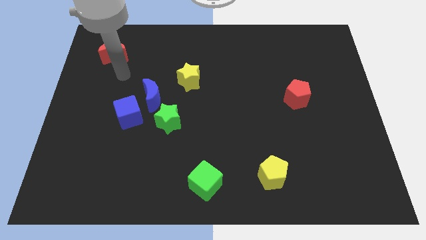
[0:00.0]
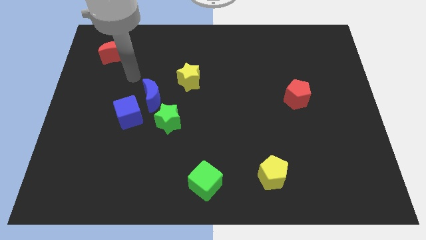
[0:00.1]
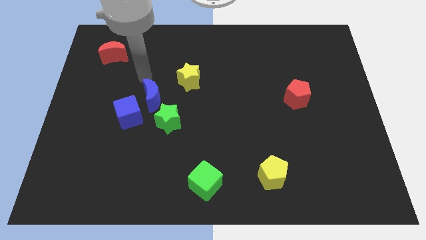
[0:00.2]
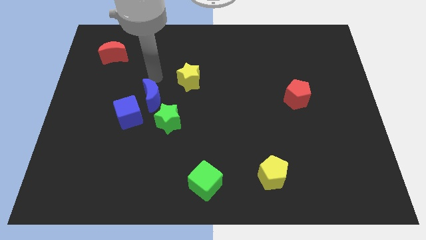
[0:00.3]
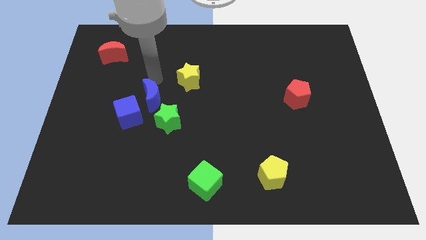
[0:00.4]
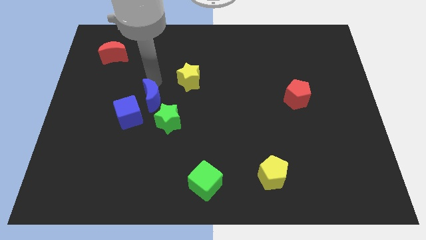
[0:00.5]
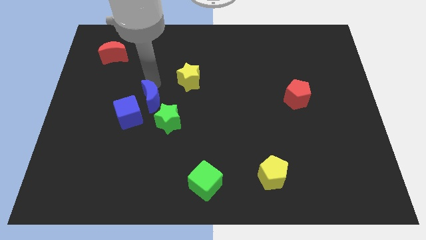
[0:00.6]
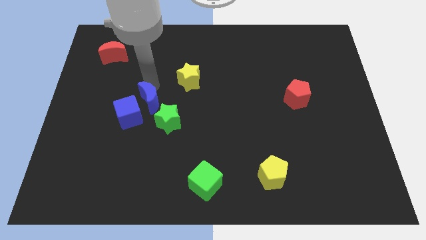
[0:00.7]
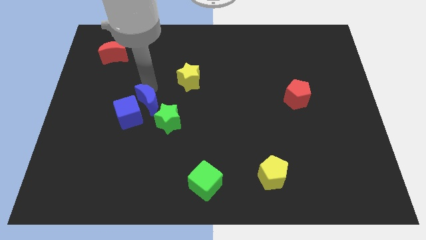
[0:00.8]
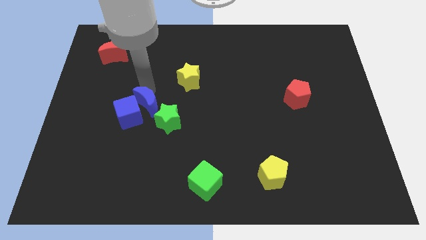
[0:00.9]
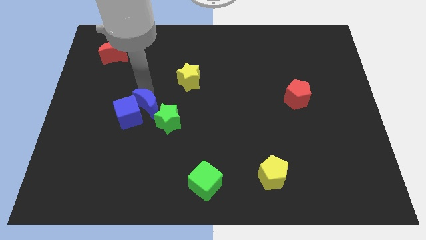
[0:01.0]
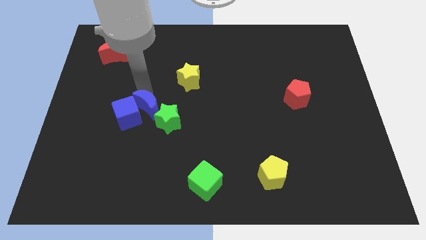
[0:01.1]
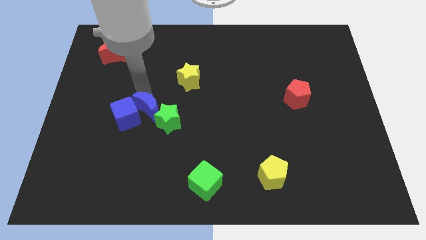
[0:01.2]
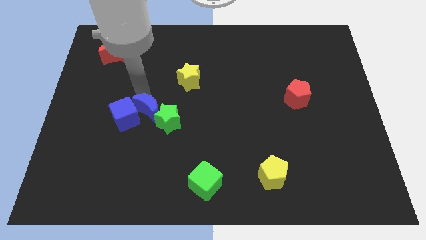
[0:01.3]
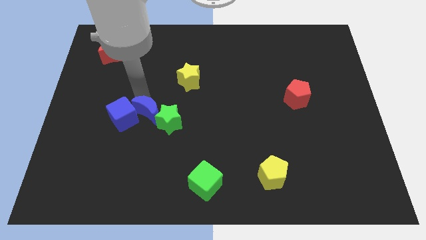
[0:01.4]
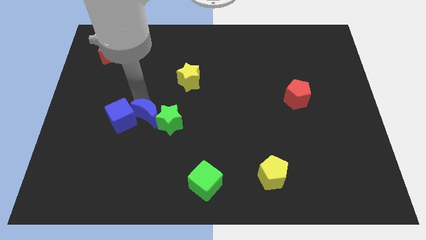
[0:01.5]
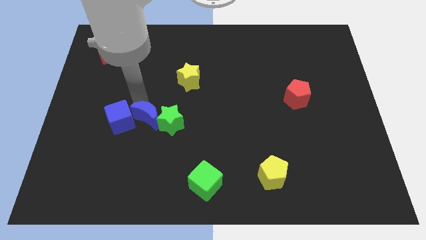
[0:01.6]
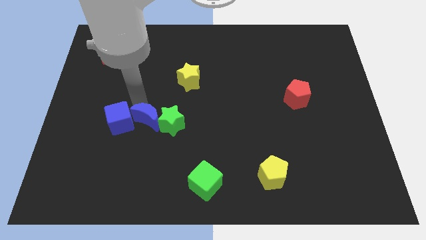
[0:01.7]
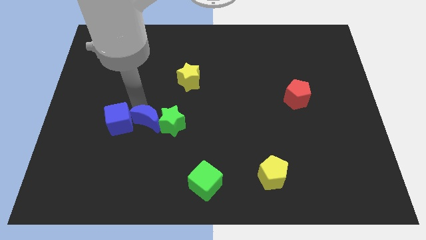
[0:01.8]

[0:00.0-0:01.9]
slightly slide the blue moon downwards

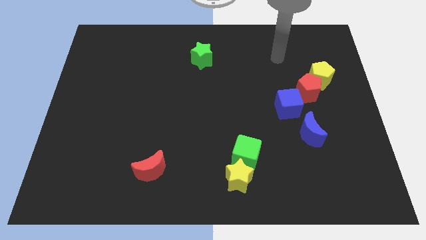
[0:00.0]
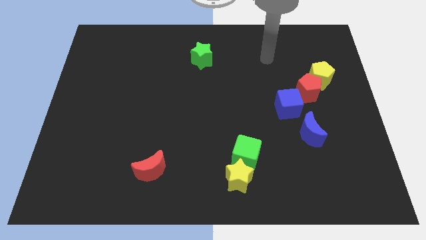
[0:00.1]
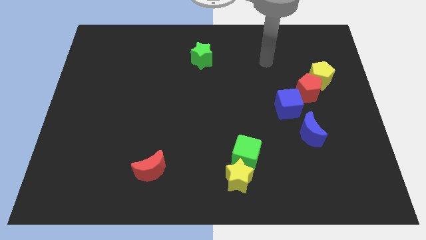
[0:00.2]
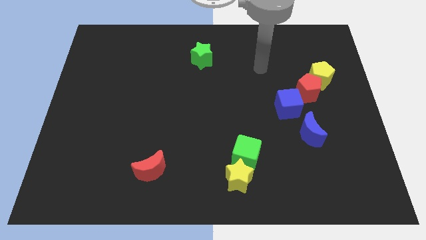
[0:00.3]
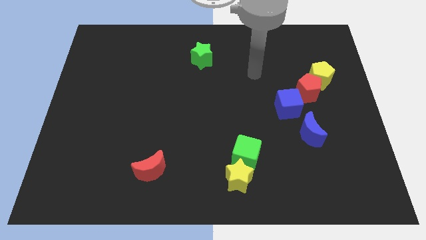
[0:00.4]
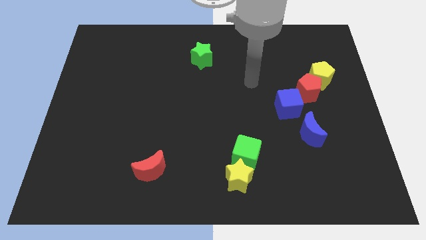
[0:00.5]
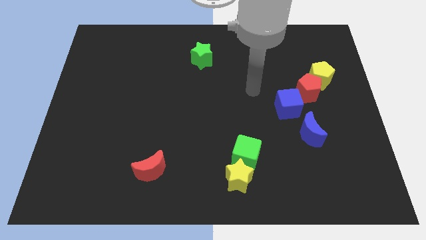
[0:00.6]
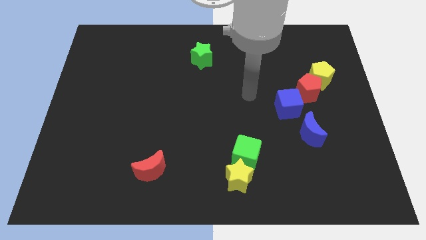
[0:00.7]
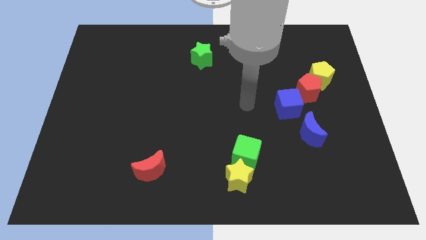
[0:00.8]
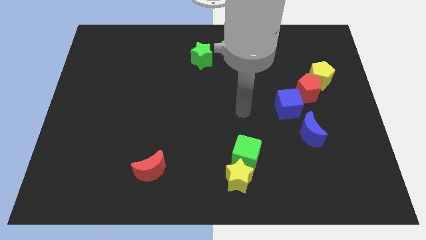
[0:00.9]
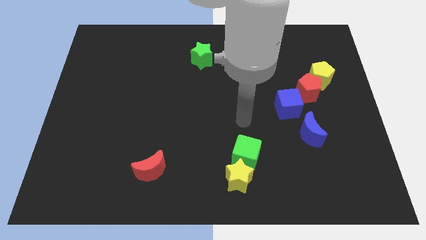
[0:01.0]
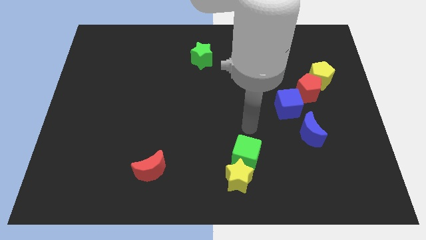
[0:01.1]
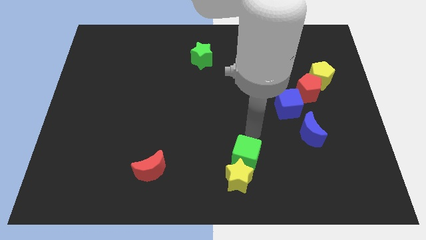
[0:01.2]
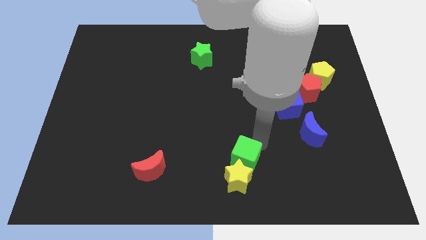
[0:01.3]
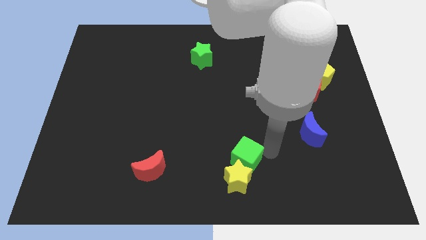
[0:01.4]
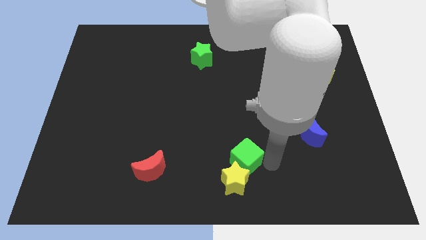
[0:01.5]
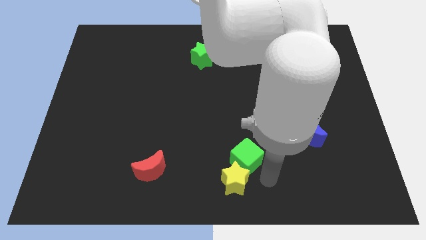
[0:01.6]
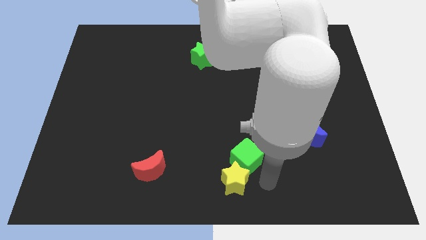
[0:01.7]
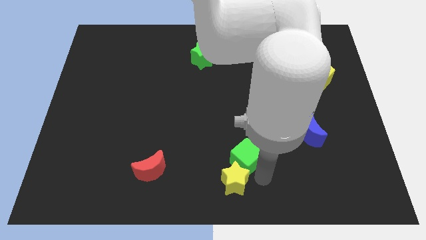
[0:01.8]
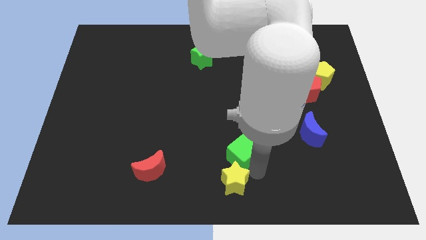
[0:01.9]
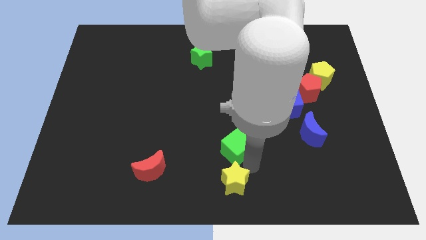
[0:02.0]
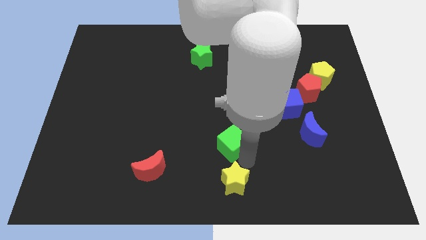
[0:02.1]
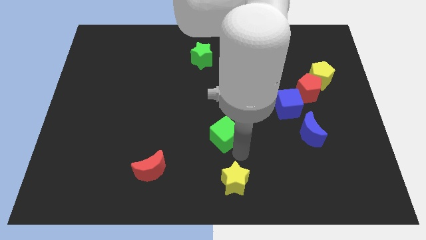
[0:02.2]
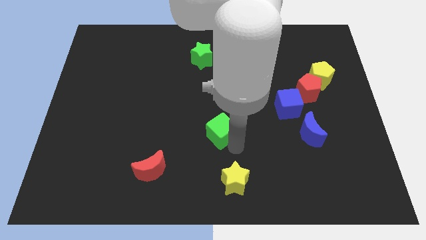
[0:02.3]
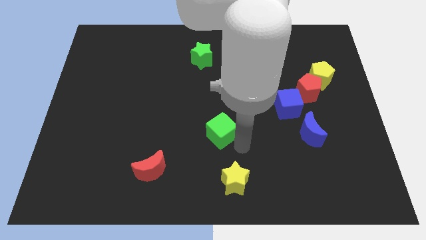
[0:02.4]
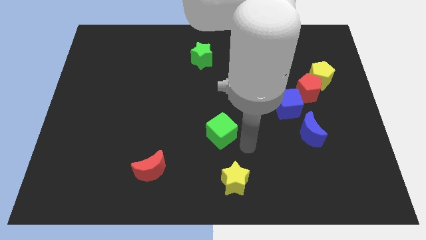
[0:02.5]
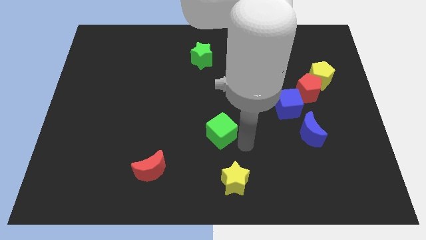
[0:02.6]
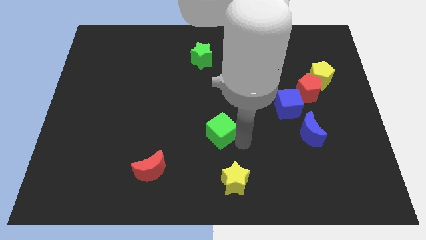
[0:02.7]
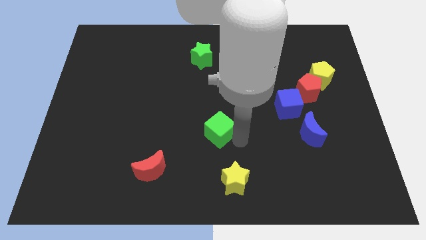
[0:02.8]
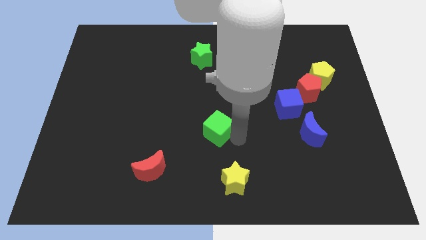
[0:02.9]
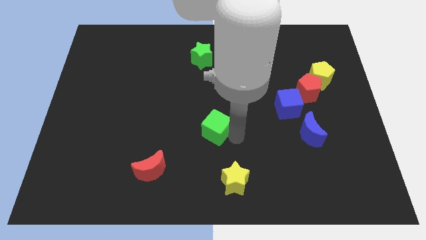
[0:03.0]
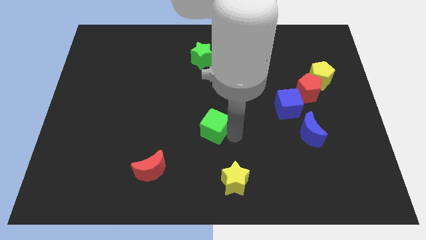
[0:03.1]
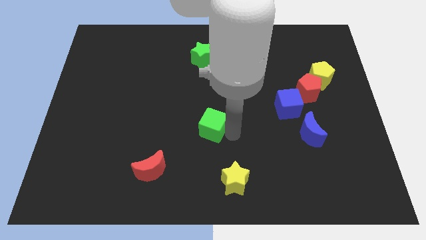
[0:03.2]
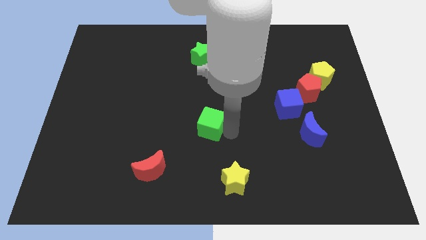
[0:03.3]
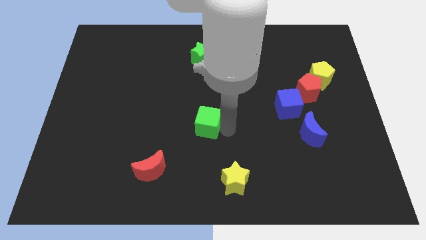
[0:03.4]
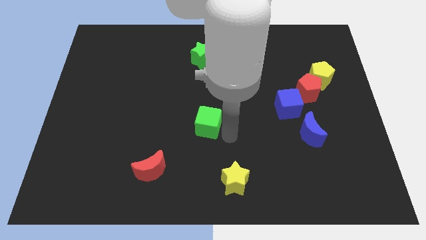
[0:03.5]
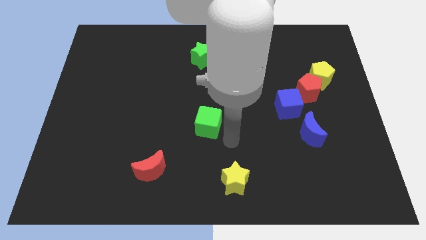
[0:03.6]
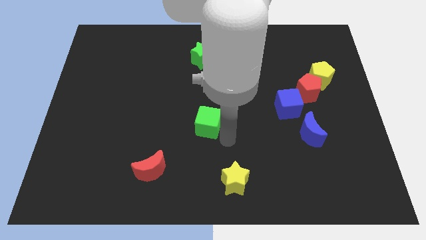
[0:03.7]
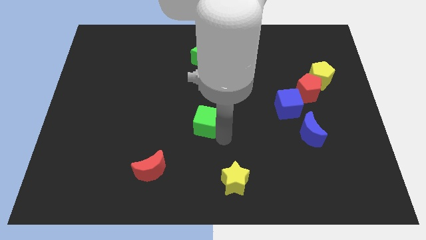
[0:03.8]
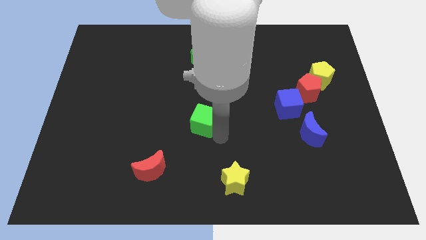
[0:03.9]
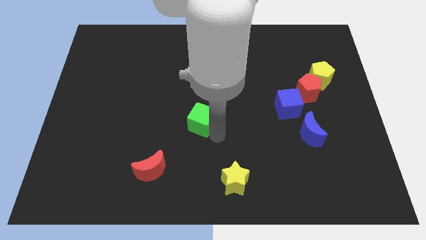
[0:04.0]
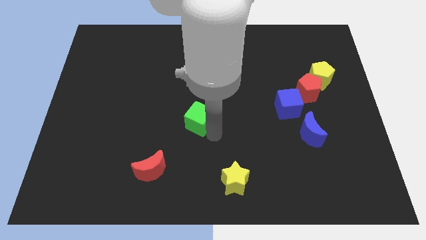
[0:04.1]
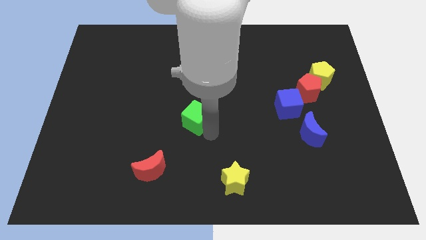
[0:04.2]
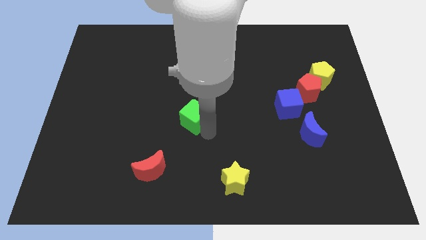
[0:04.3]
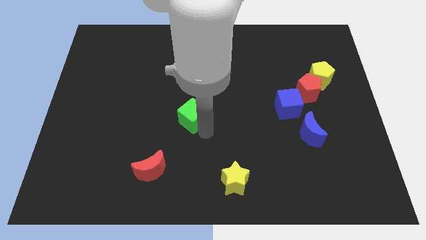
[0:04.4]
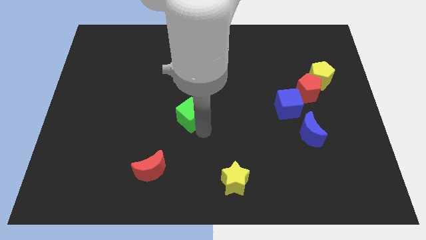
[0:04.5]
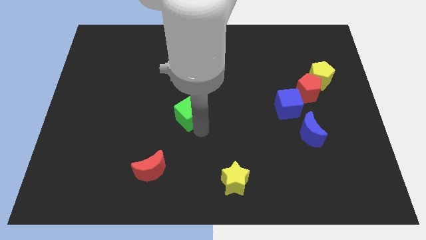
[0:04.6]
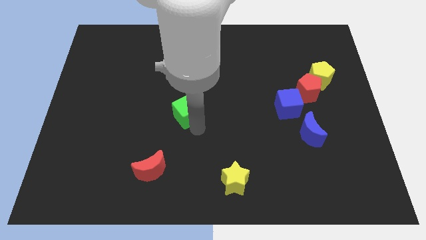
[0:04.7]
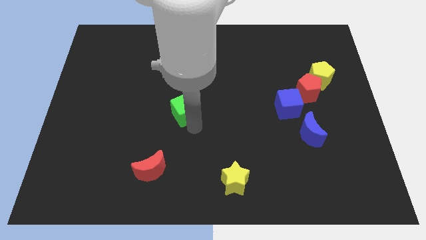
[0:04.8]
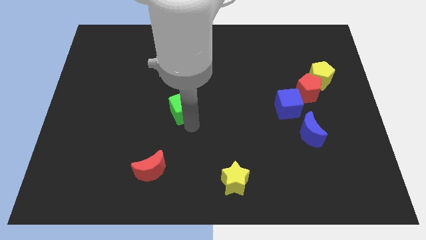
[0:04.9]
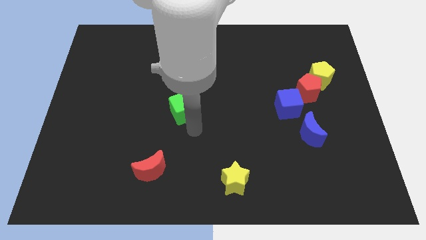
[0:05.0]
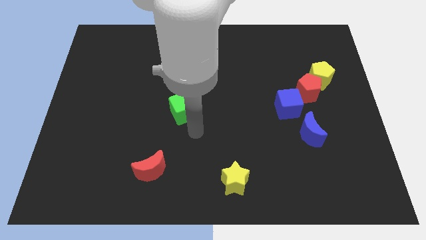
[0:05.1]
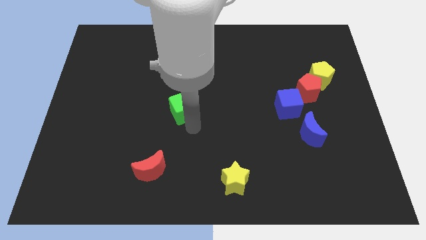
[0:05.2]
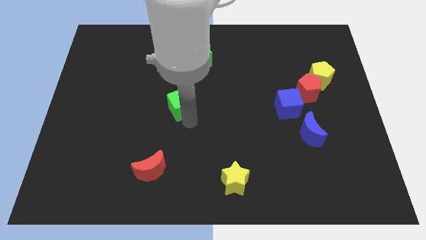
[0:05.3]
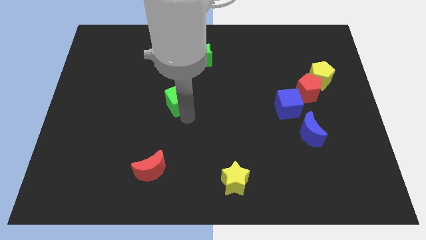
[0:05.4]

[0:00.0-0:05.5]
slide the green cube upwards and left

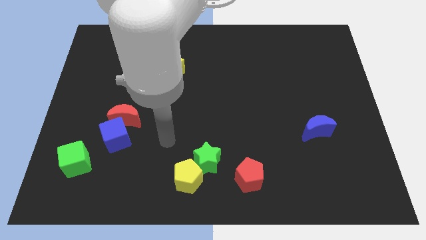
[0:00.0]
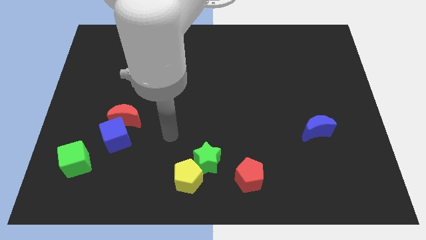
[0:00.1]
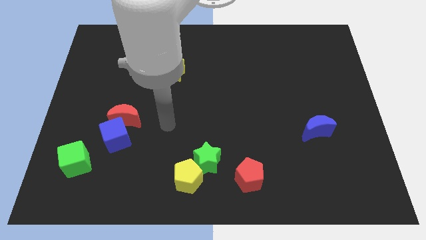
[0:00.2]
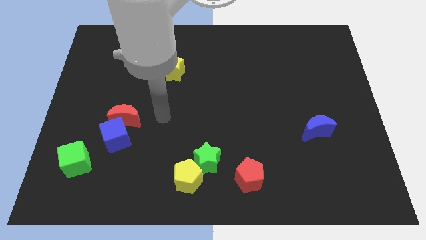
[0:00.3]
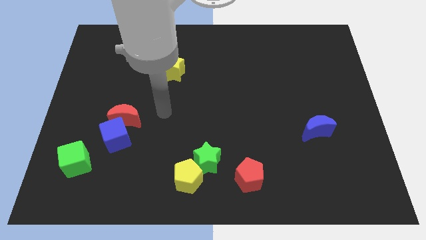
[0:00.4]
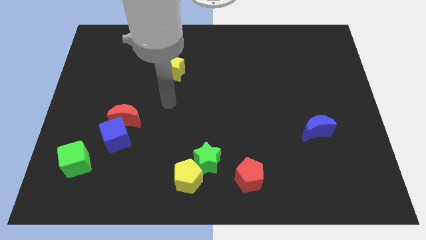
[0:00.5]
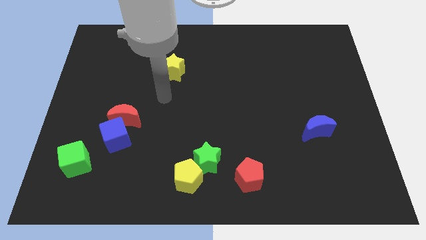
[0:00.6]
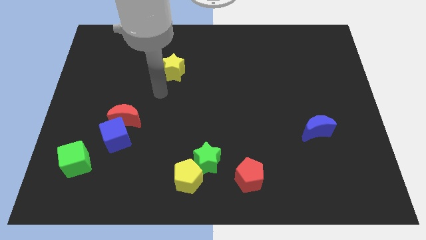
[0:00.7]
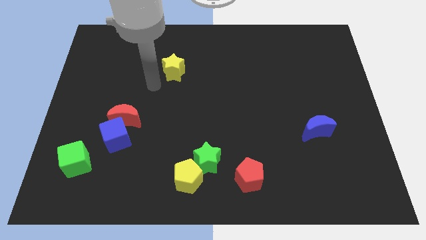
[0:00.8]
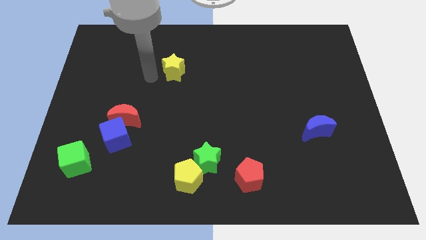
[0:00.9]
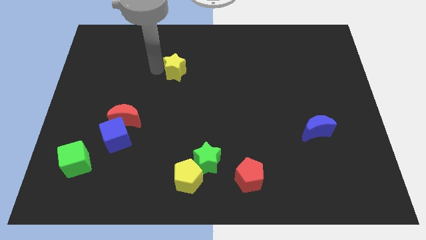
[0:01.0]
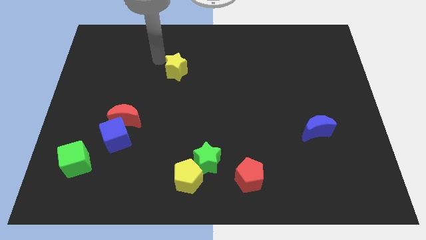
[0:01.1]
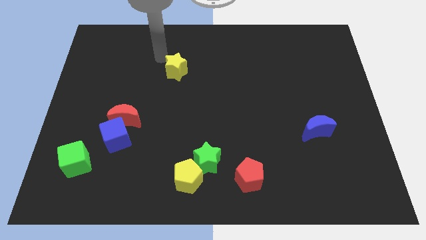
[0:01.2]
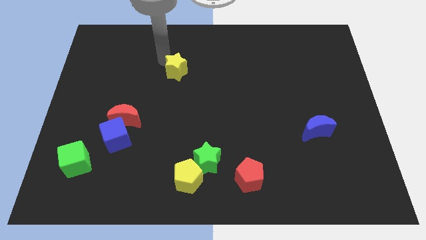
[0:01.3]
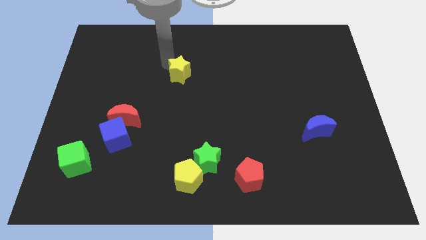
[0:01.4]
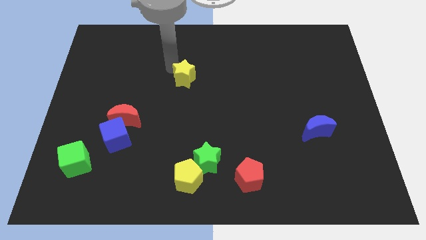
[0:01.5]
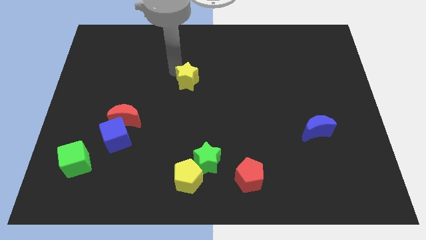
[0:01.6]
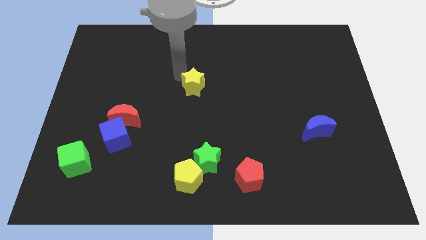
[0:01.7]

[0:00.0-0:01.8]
slide the yellow star downwards and to the right diagonally a little
